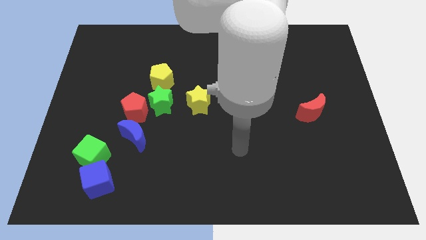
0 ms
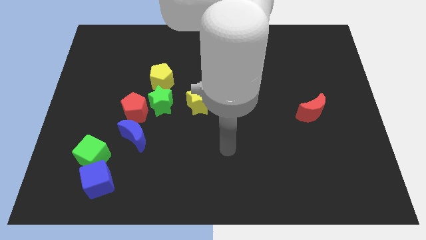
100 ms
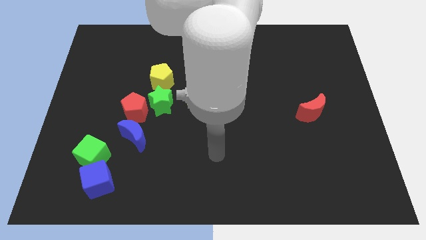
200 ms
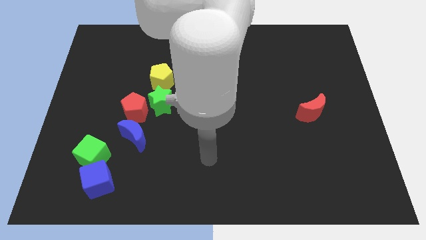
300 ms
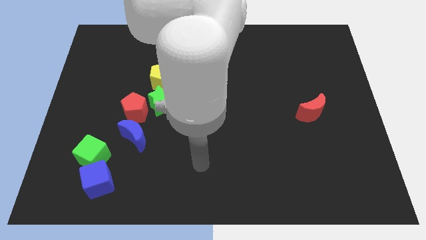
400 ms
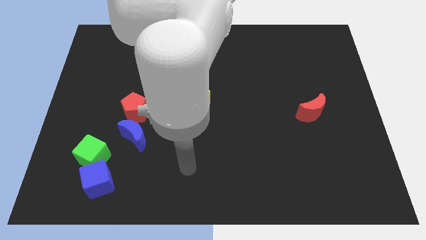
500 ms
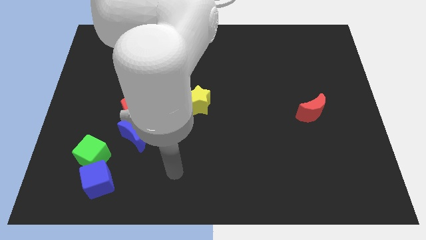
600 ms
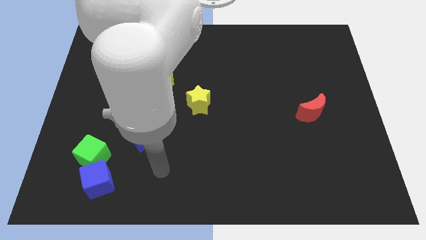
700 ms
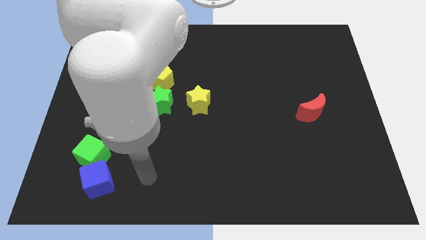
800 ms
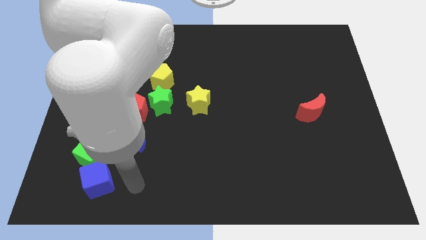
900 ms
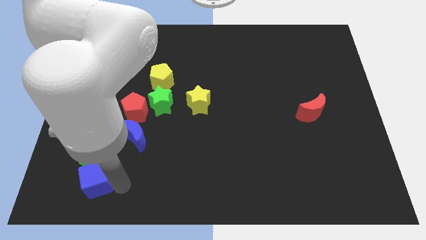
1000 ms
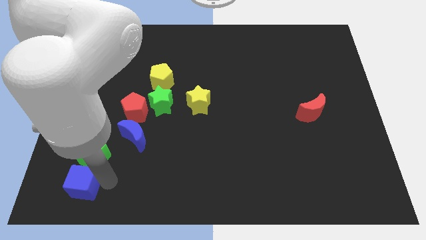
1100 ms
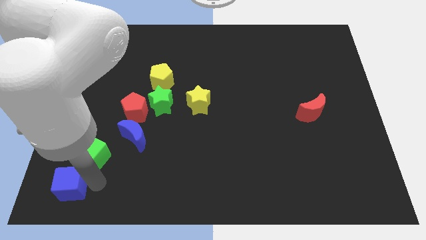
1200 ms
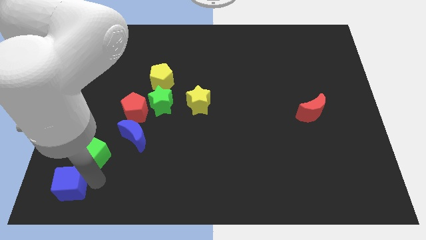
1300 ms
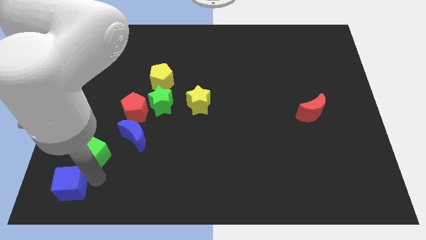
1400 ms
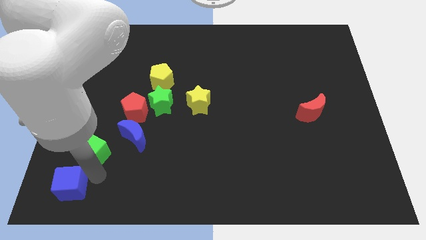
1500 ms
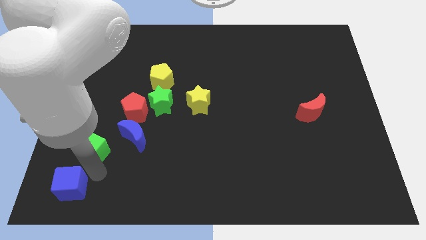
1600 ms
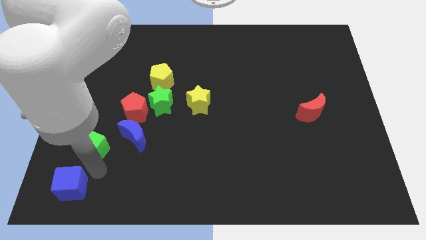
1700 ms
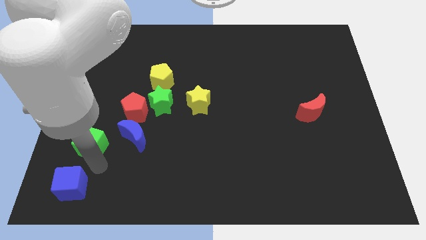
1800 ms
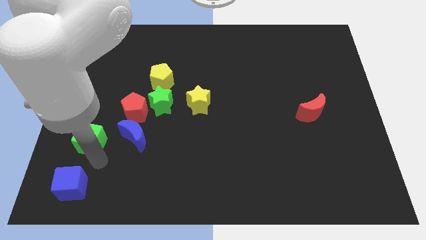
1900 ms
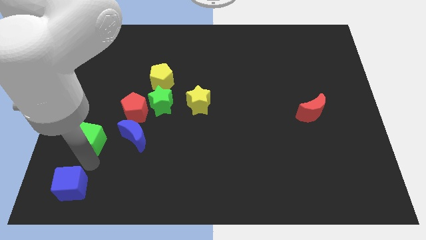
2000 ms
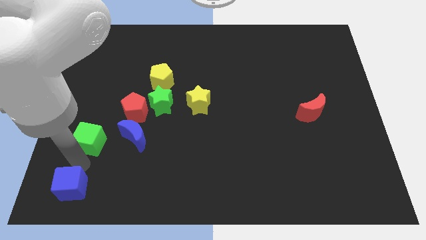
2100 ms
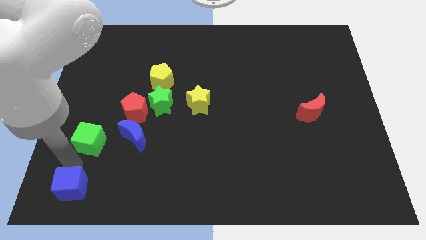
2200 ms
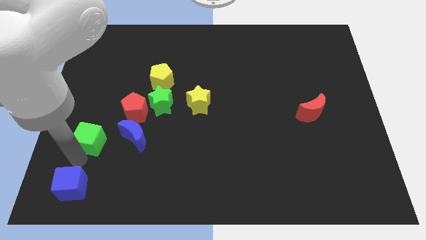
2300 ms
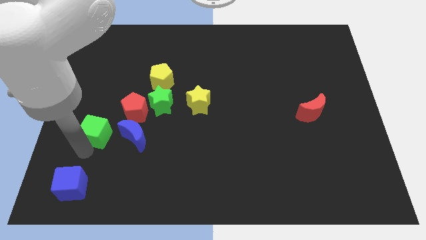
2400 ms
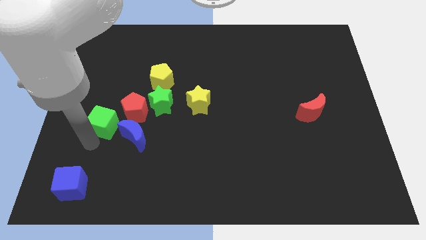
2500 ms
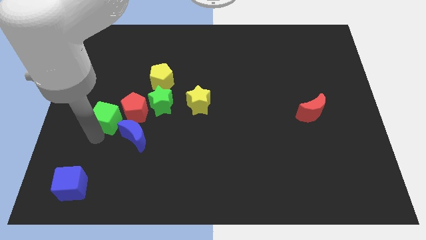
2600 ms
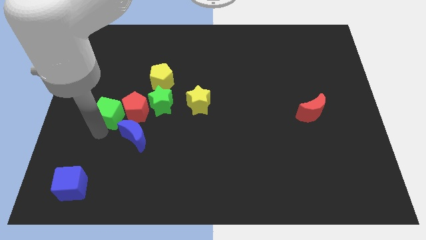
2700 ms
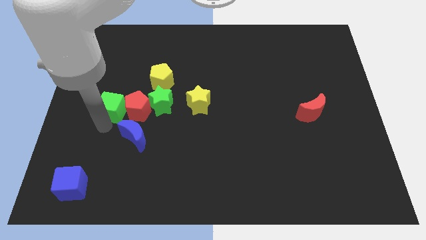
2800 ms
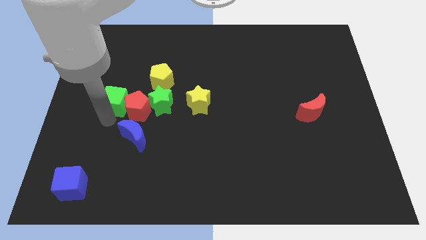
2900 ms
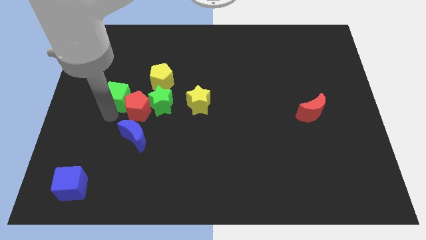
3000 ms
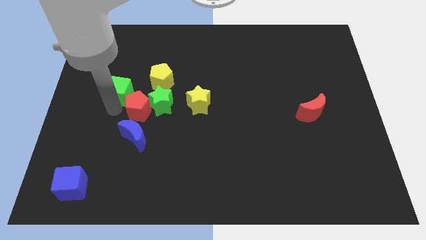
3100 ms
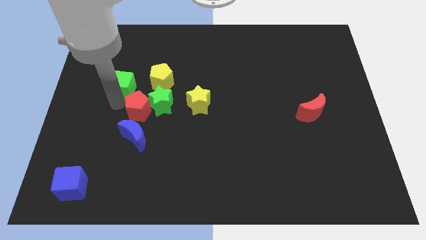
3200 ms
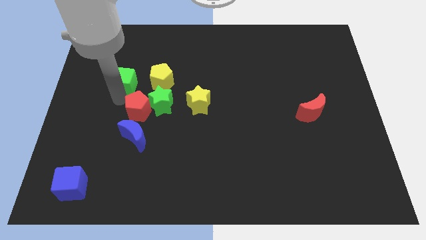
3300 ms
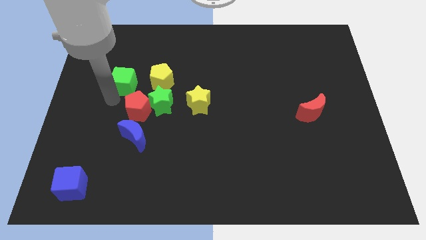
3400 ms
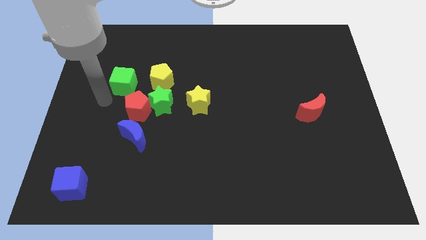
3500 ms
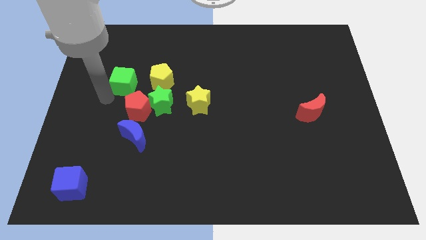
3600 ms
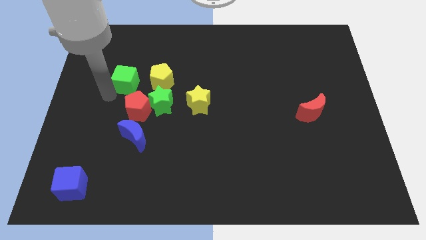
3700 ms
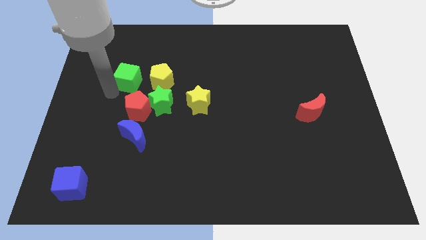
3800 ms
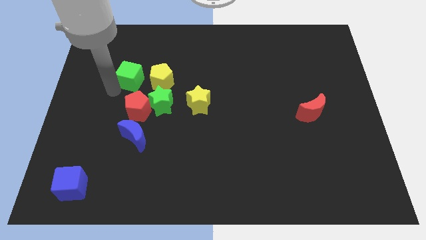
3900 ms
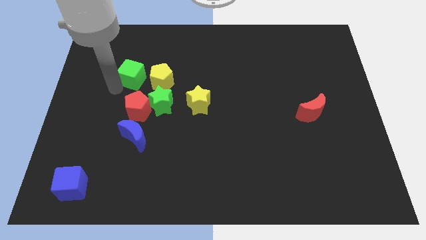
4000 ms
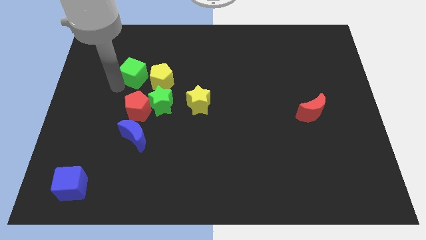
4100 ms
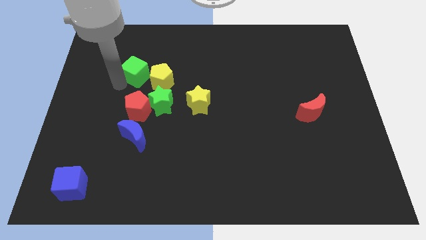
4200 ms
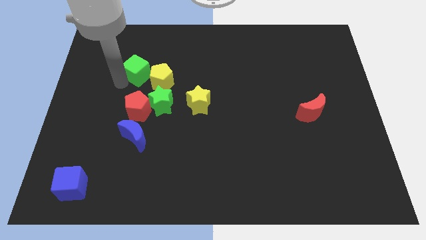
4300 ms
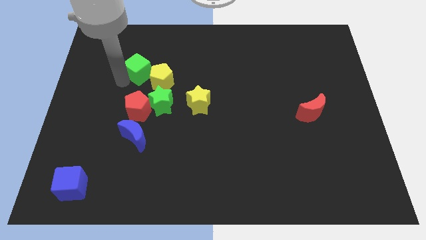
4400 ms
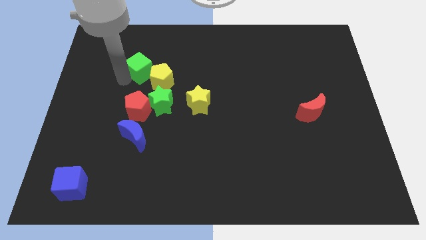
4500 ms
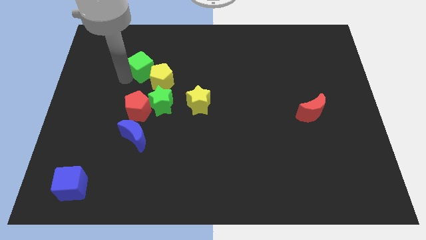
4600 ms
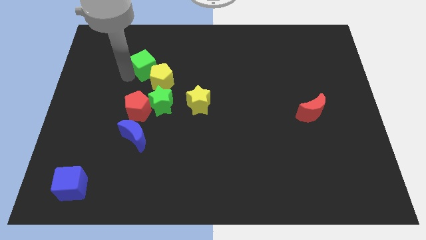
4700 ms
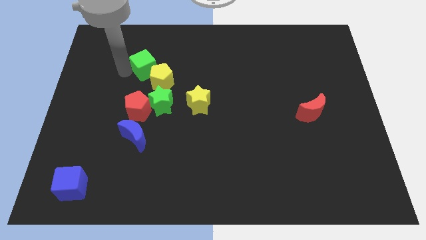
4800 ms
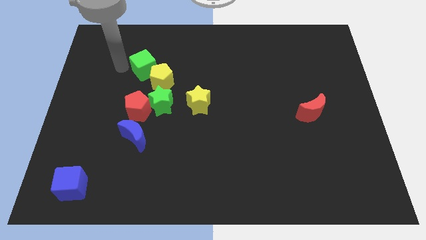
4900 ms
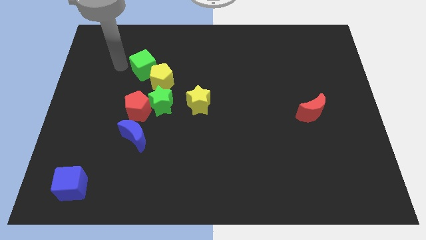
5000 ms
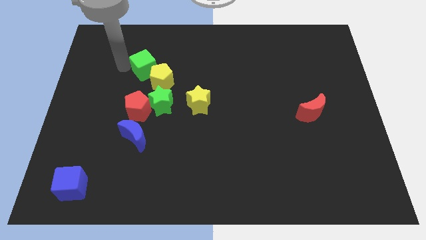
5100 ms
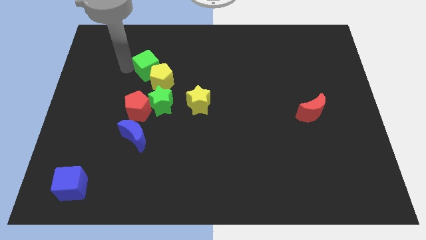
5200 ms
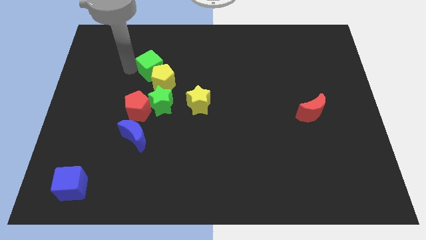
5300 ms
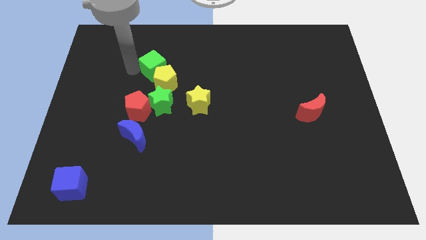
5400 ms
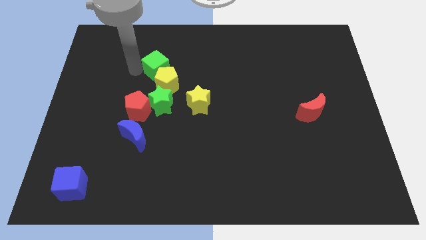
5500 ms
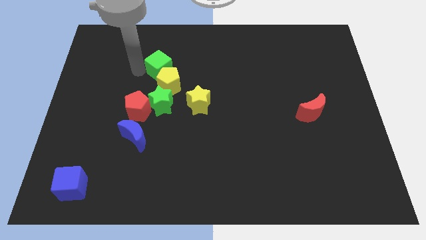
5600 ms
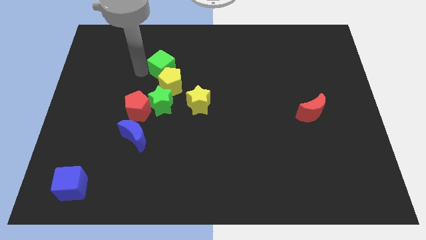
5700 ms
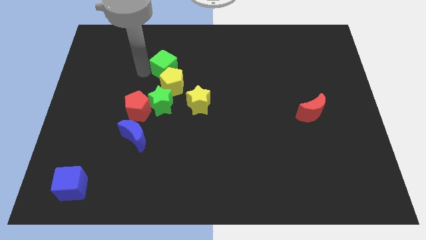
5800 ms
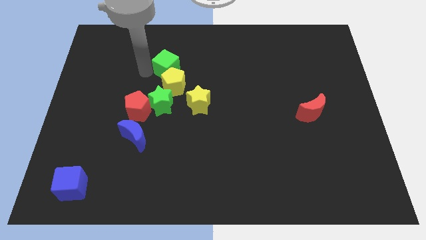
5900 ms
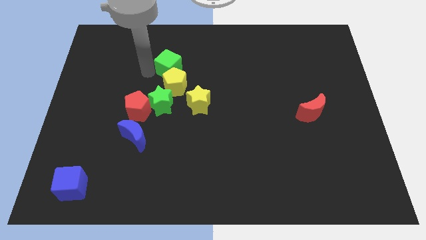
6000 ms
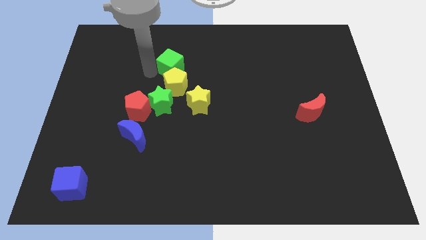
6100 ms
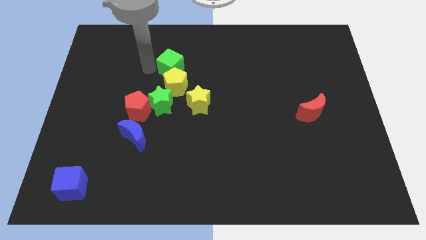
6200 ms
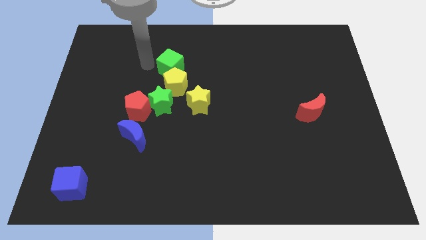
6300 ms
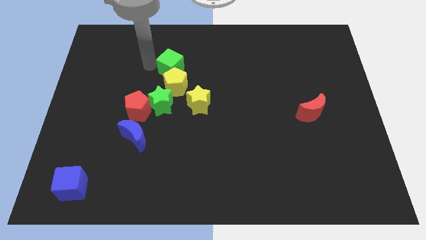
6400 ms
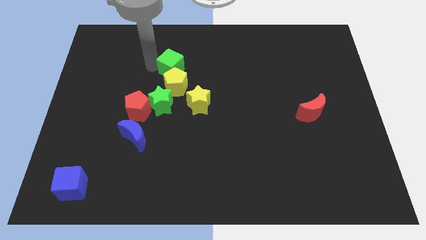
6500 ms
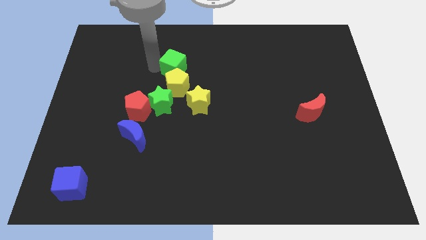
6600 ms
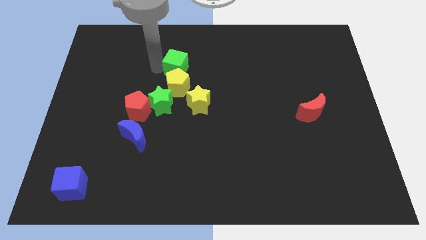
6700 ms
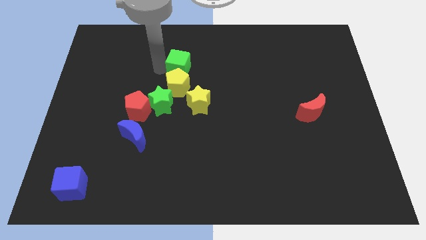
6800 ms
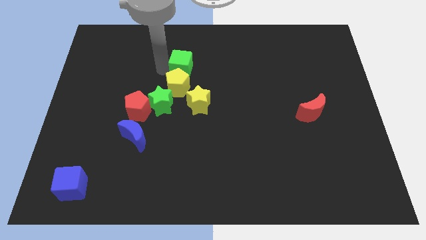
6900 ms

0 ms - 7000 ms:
slide the green cube to the top side of the yellow star

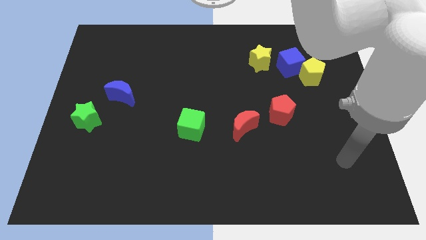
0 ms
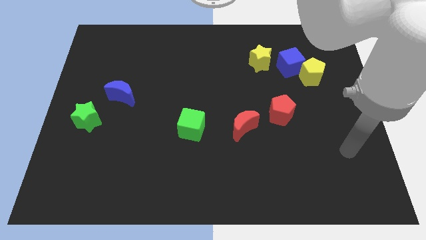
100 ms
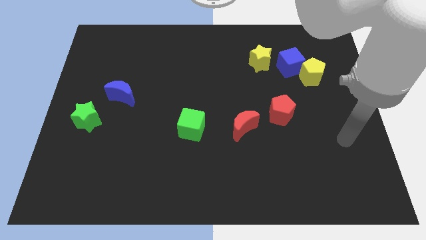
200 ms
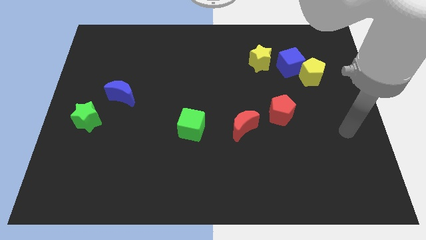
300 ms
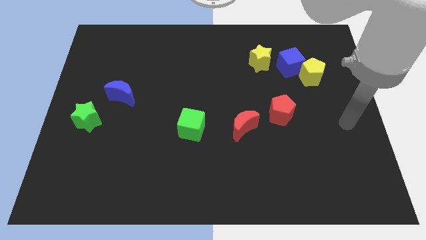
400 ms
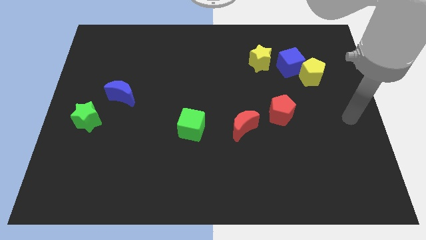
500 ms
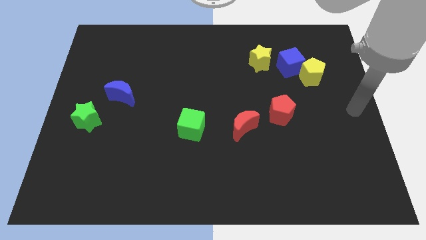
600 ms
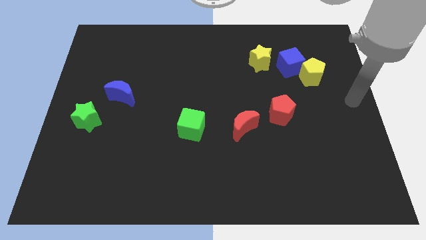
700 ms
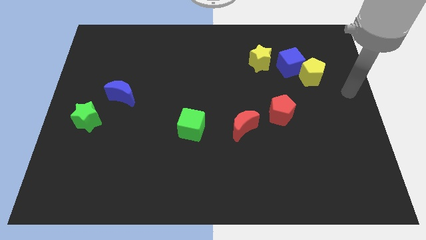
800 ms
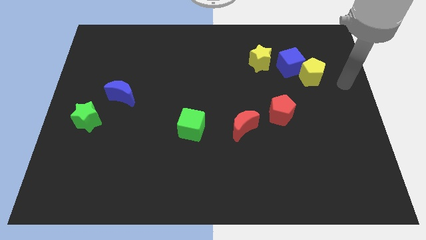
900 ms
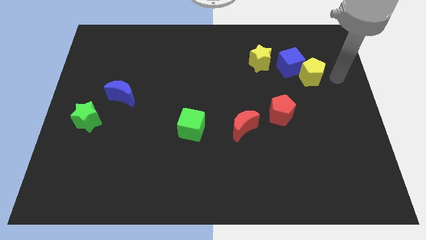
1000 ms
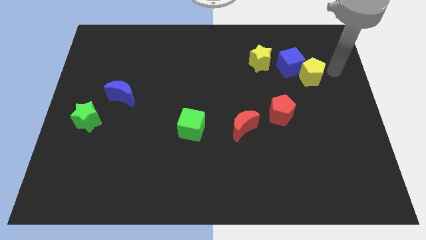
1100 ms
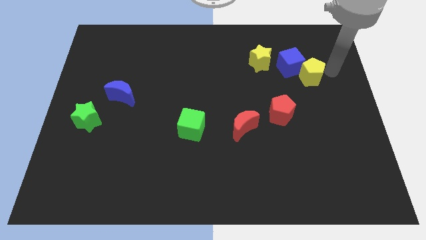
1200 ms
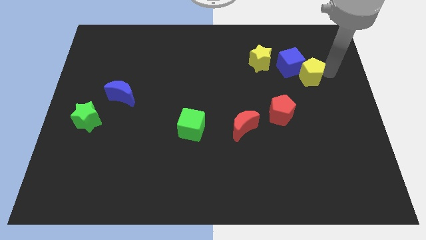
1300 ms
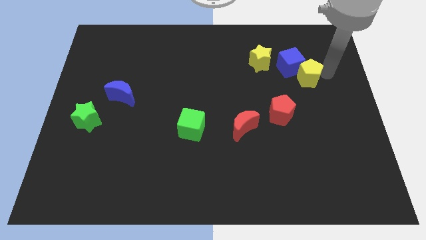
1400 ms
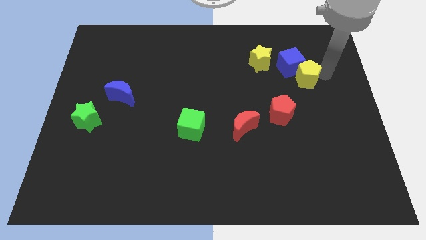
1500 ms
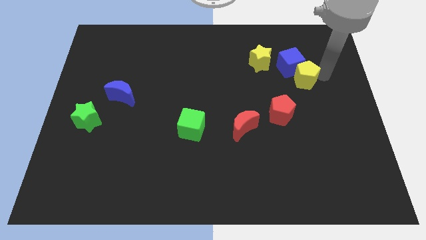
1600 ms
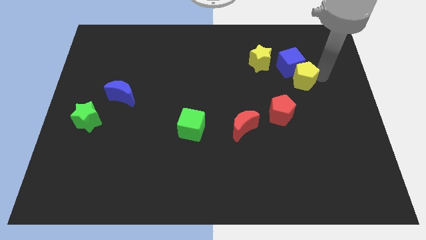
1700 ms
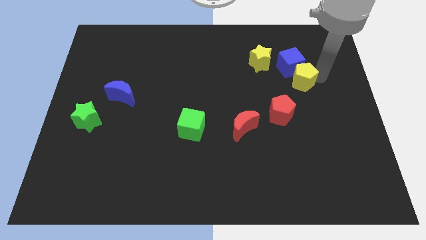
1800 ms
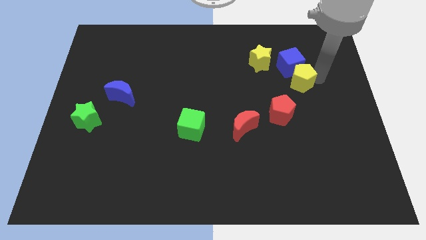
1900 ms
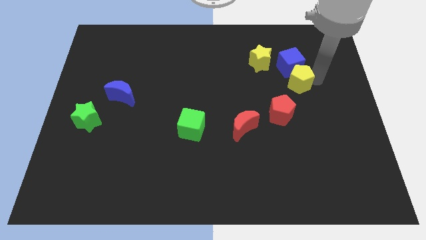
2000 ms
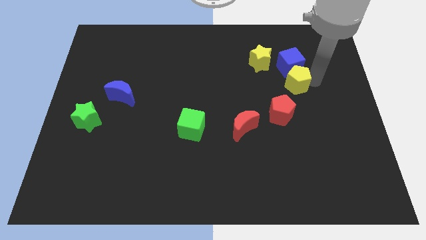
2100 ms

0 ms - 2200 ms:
slide the yellow pentagon diagonally down and to the left of the blue cube
